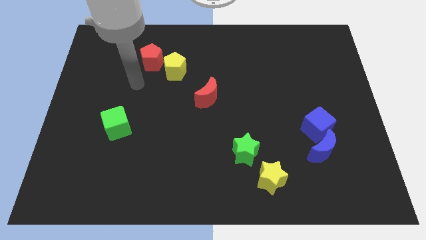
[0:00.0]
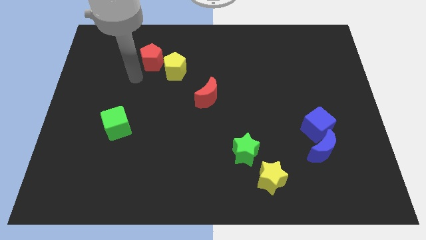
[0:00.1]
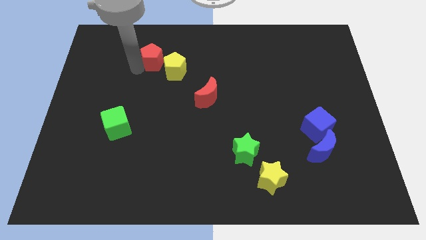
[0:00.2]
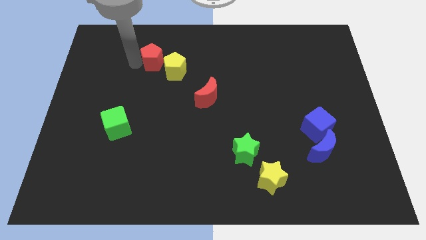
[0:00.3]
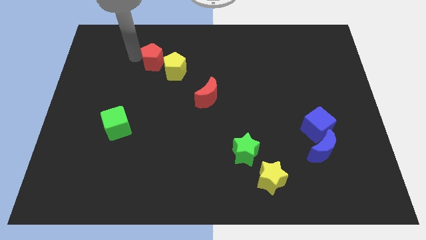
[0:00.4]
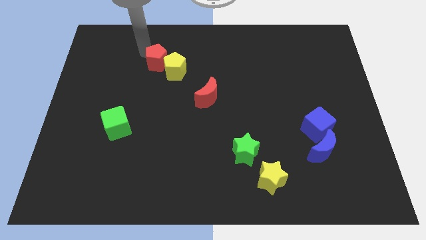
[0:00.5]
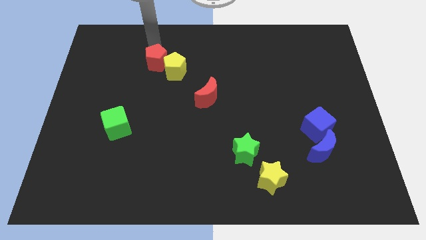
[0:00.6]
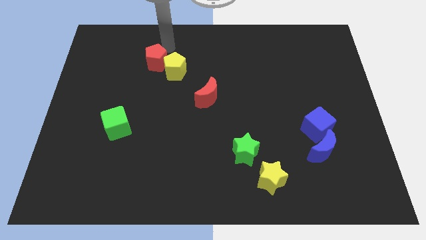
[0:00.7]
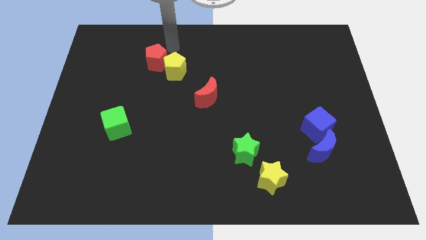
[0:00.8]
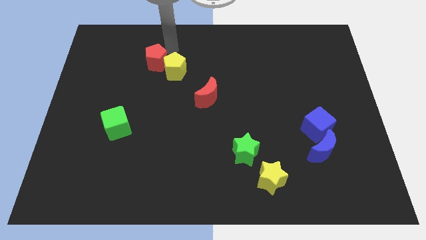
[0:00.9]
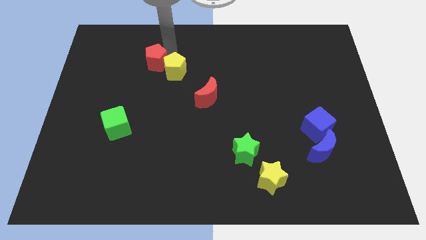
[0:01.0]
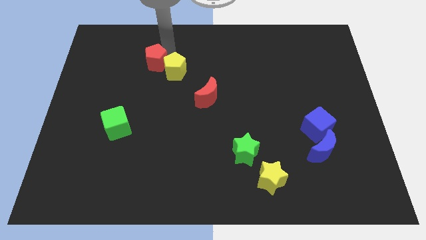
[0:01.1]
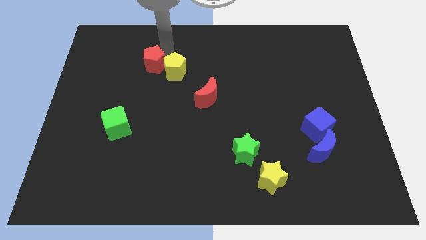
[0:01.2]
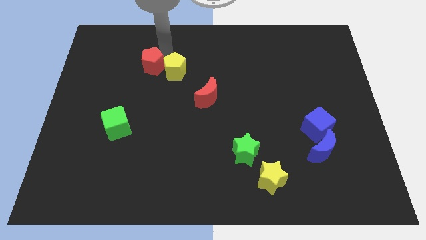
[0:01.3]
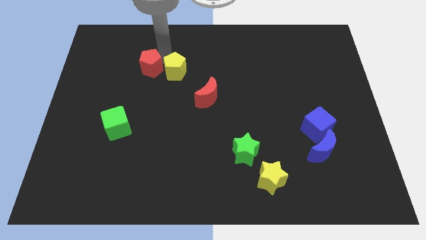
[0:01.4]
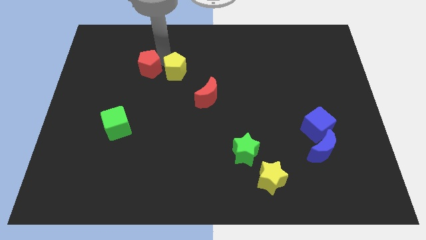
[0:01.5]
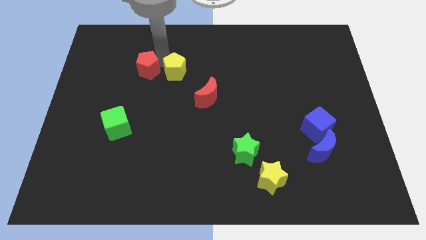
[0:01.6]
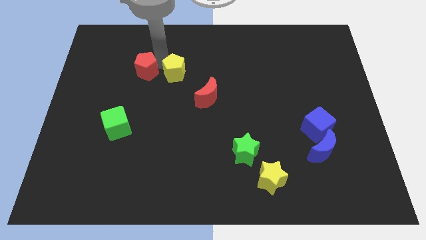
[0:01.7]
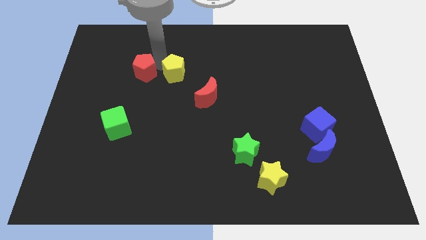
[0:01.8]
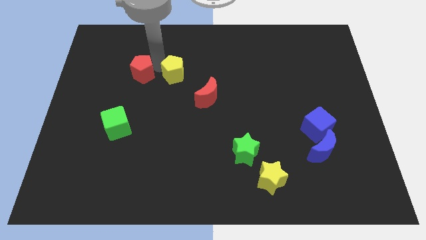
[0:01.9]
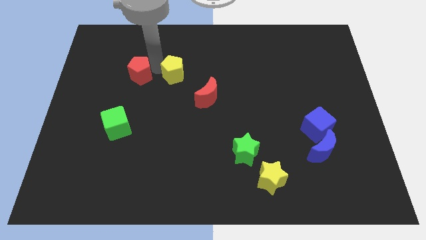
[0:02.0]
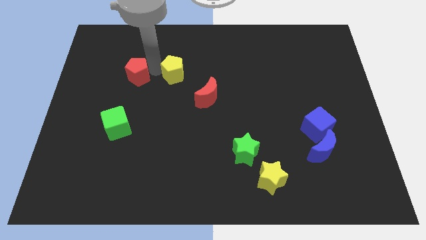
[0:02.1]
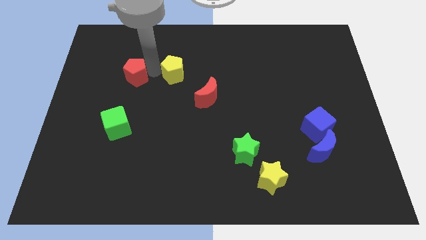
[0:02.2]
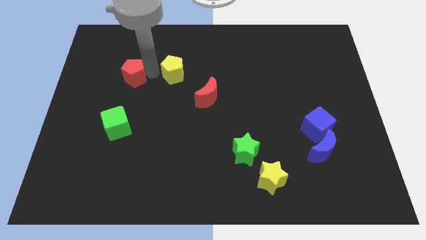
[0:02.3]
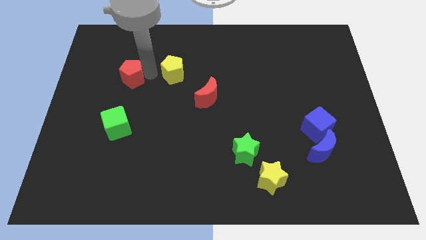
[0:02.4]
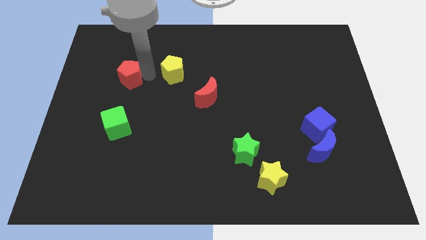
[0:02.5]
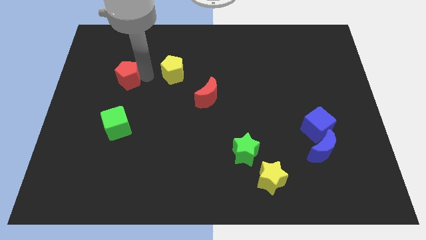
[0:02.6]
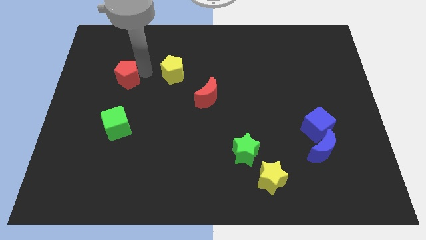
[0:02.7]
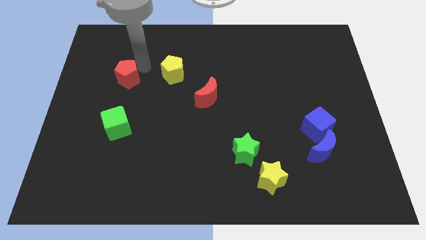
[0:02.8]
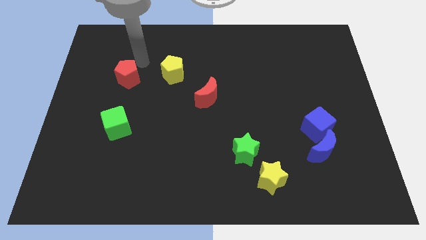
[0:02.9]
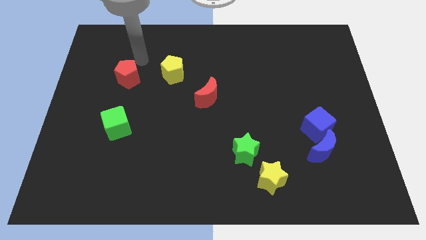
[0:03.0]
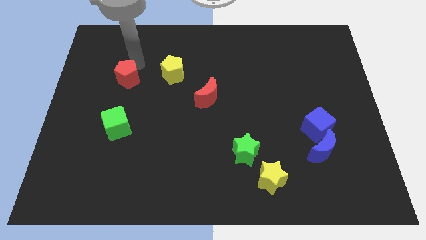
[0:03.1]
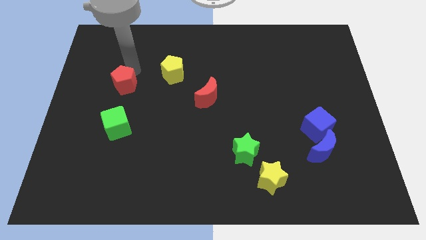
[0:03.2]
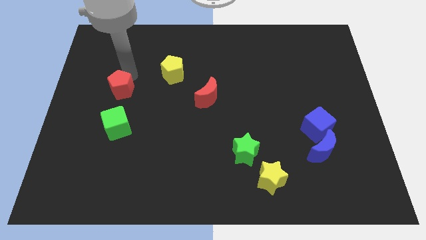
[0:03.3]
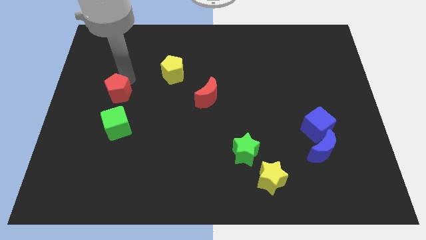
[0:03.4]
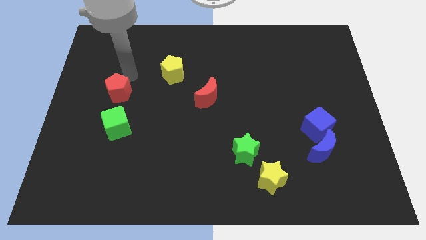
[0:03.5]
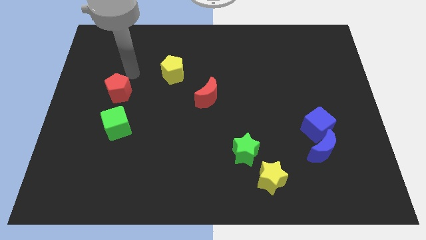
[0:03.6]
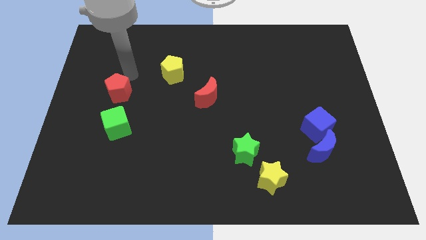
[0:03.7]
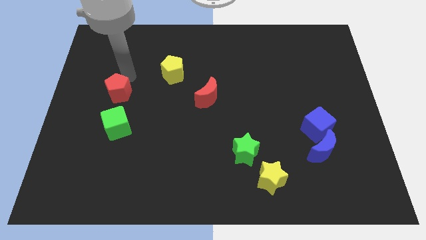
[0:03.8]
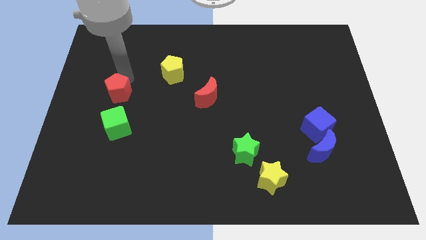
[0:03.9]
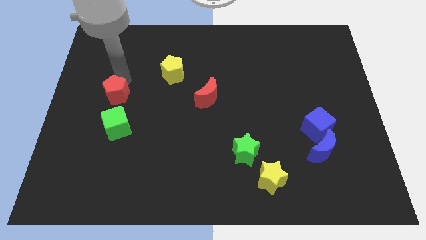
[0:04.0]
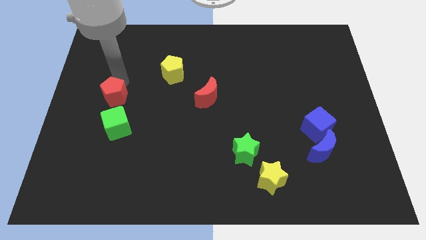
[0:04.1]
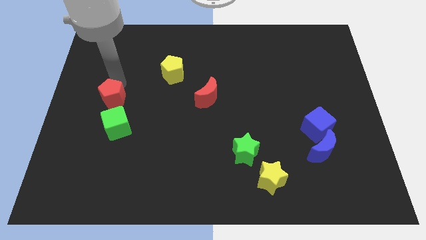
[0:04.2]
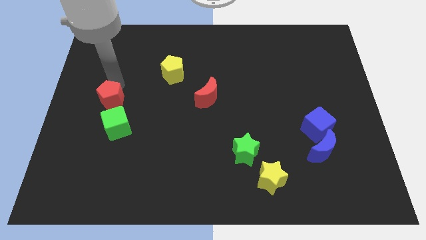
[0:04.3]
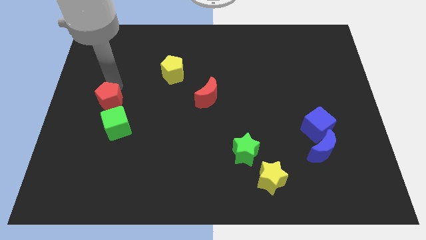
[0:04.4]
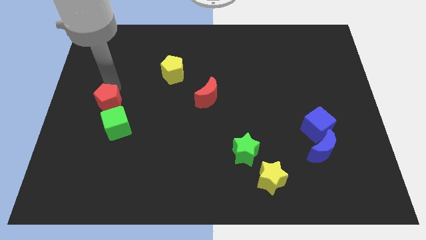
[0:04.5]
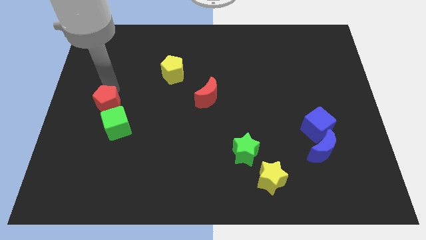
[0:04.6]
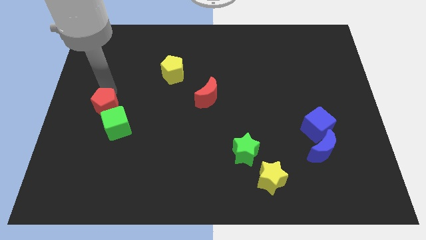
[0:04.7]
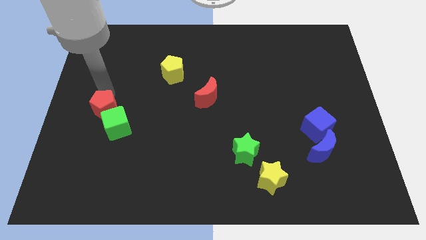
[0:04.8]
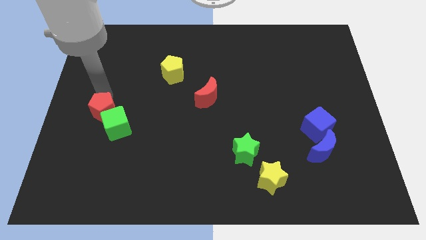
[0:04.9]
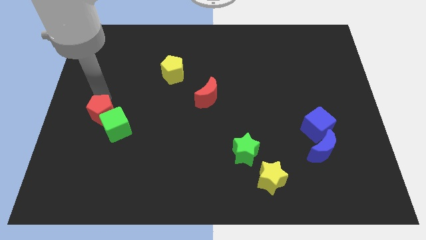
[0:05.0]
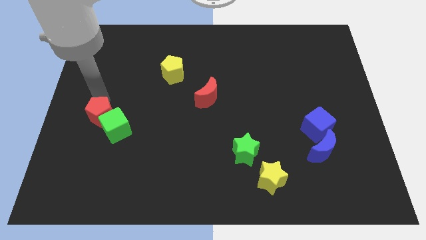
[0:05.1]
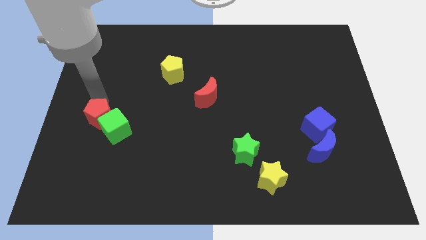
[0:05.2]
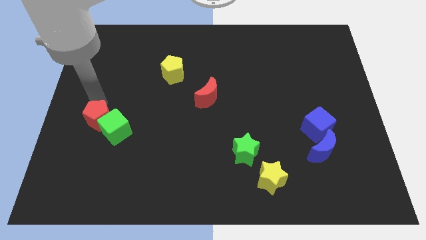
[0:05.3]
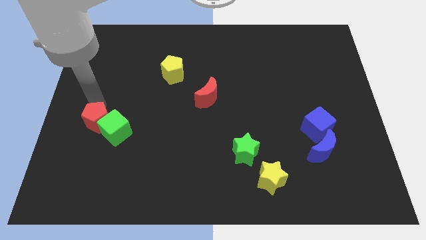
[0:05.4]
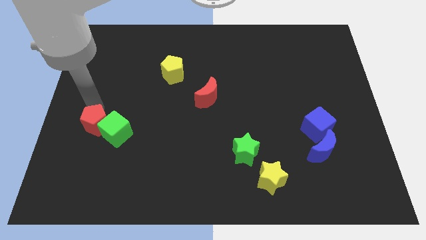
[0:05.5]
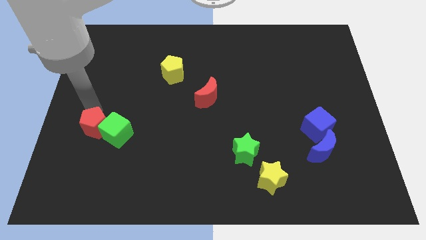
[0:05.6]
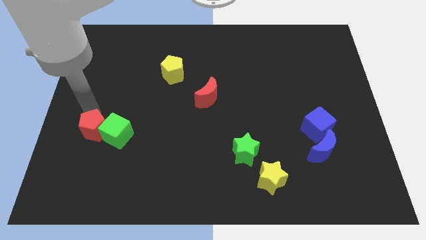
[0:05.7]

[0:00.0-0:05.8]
move the red pentagon to the bottom left of the green cube

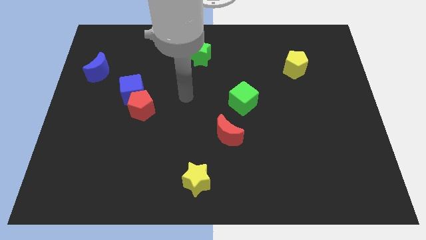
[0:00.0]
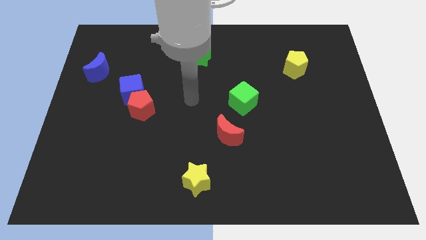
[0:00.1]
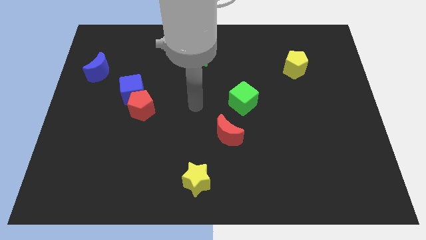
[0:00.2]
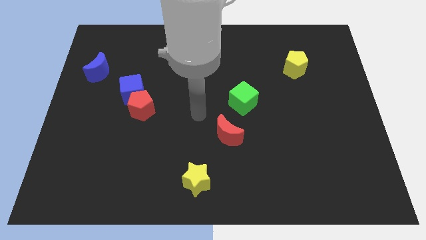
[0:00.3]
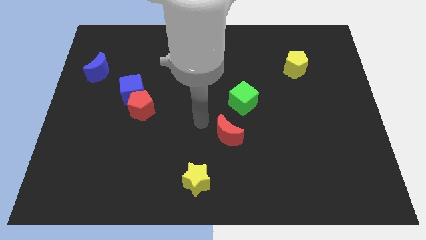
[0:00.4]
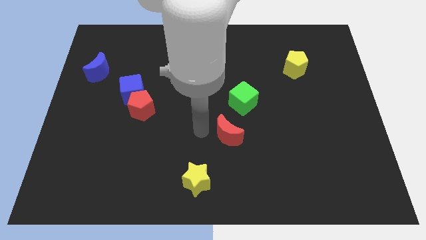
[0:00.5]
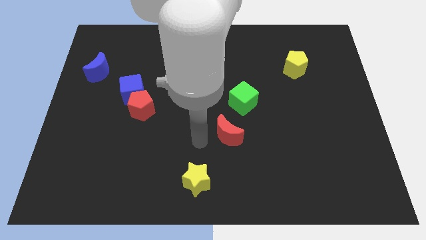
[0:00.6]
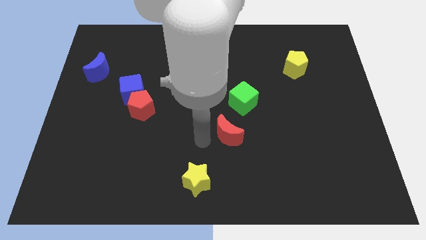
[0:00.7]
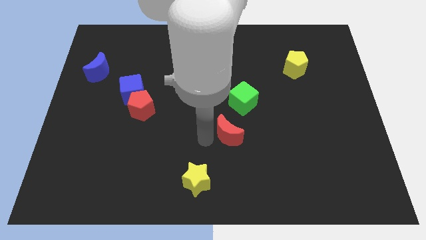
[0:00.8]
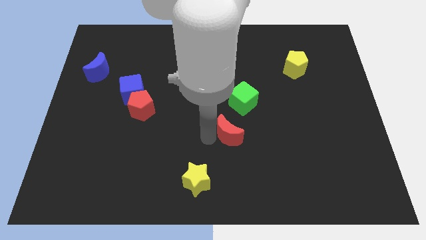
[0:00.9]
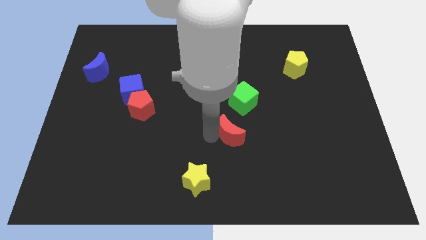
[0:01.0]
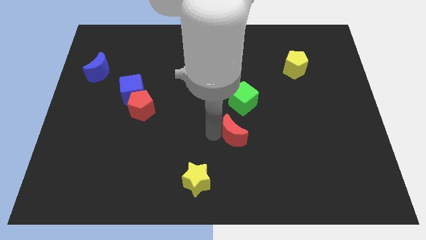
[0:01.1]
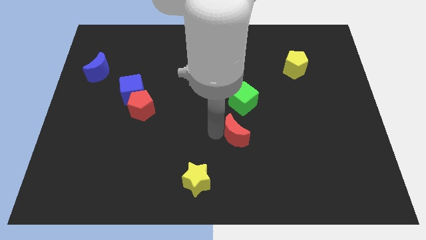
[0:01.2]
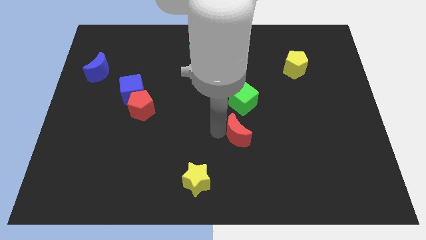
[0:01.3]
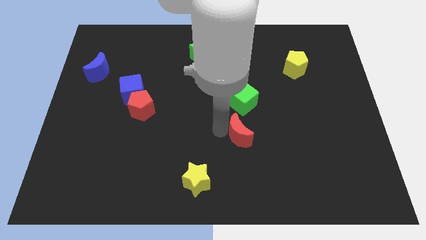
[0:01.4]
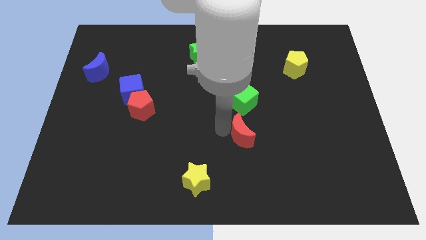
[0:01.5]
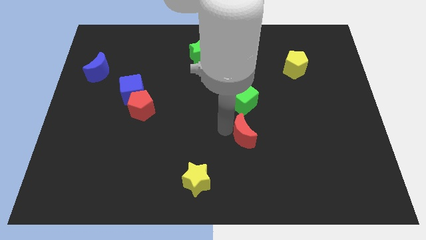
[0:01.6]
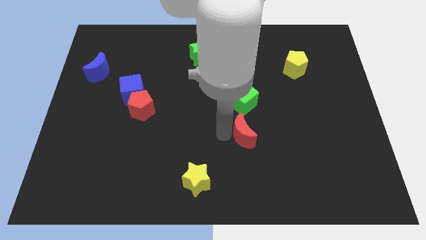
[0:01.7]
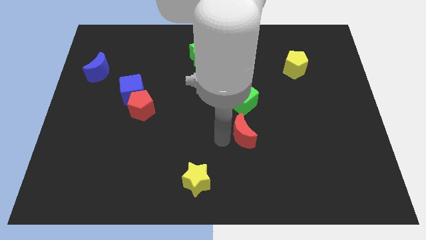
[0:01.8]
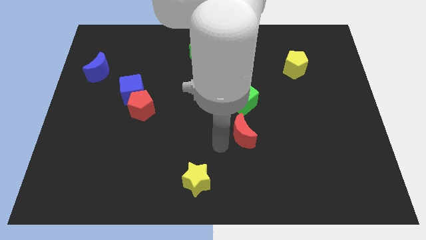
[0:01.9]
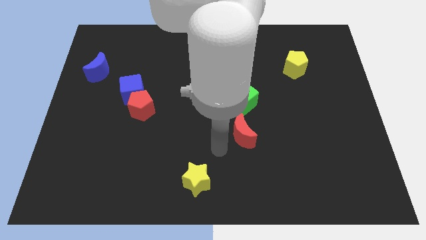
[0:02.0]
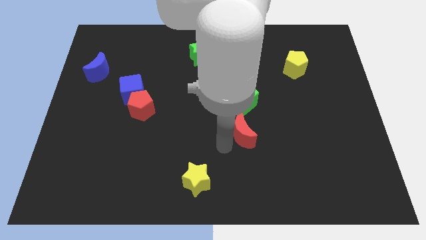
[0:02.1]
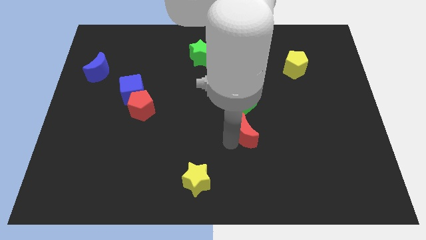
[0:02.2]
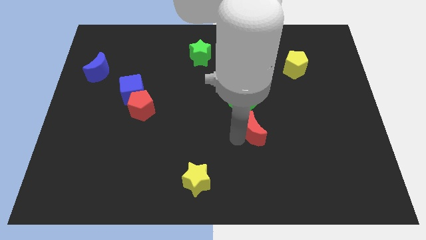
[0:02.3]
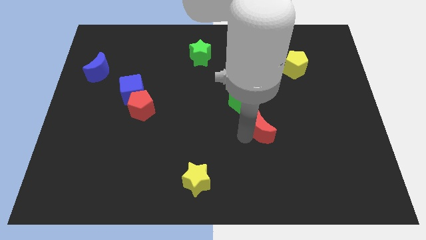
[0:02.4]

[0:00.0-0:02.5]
push the red moon diagonally down and to the right of the green cube
